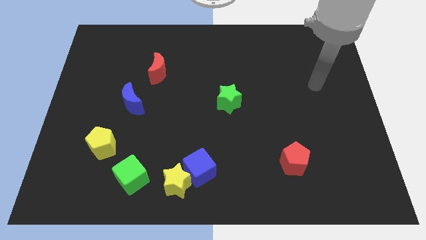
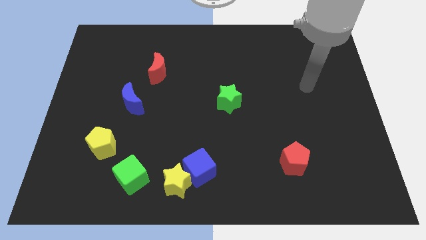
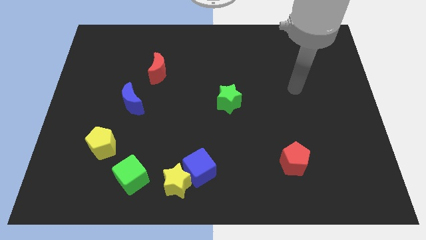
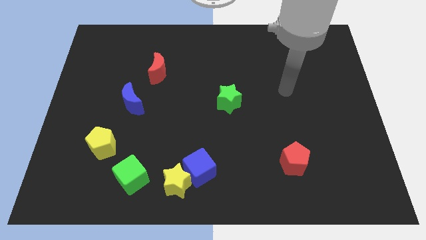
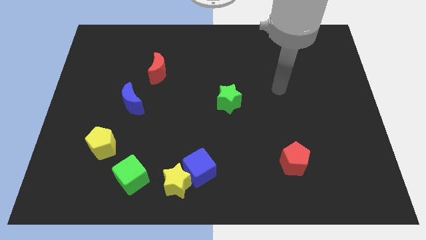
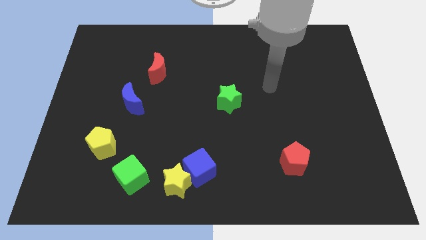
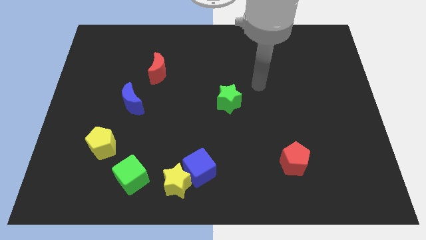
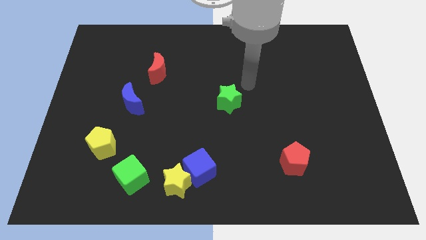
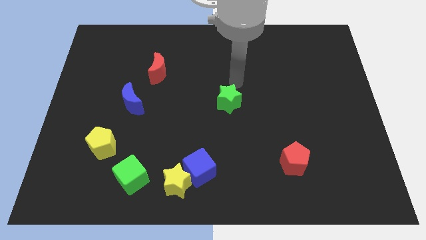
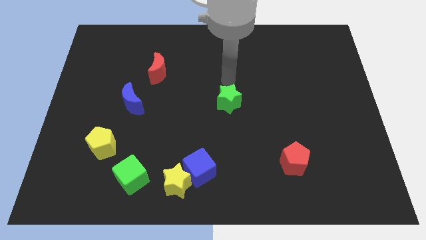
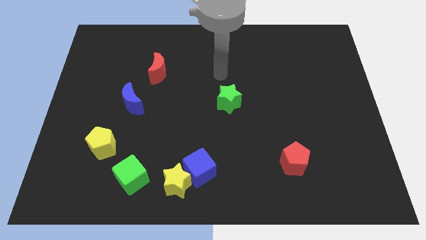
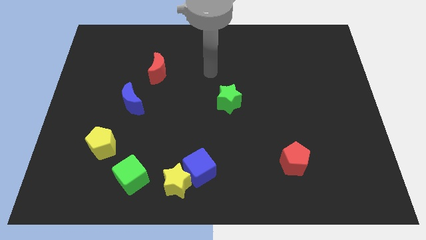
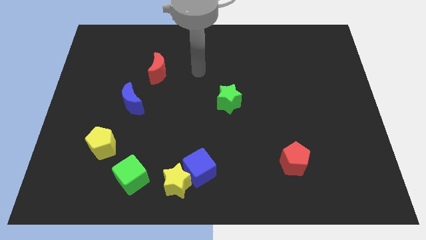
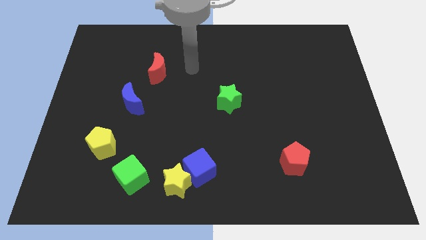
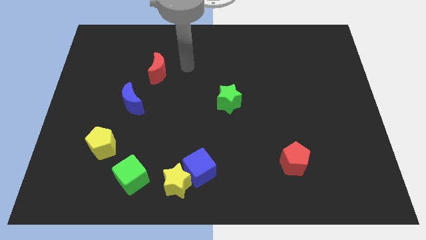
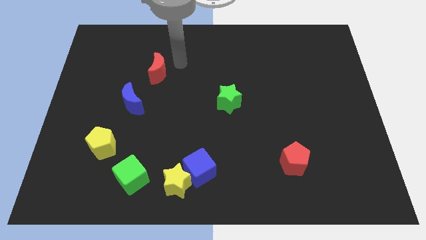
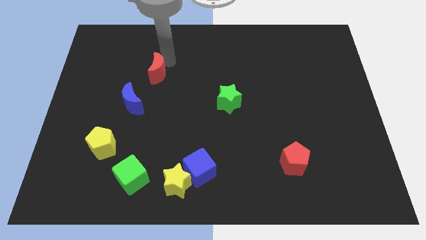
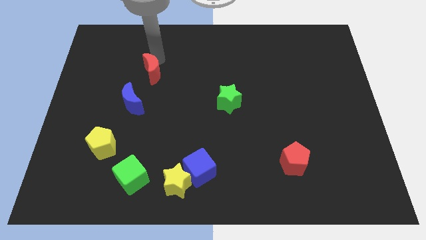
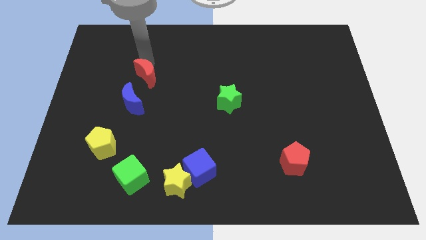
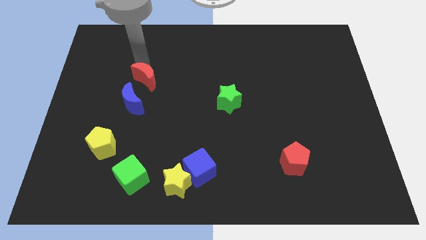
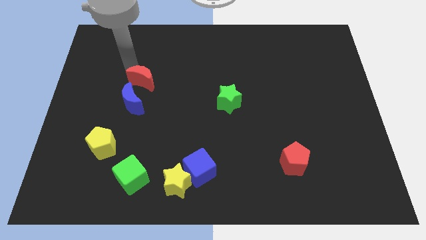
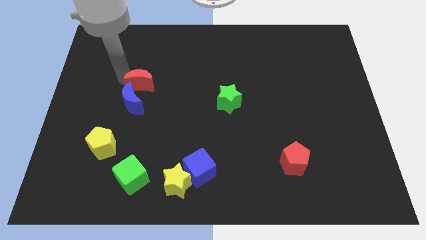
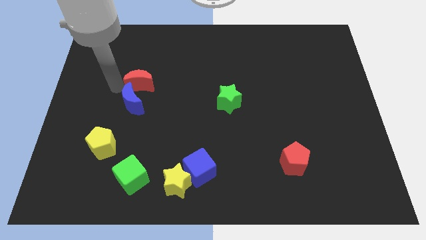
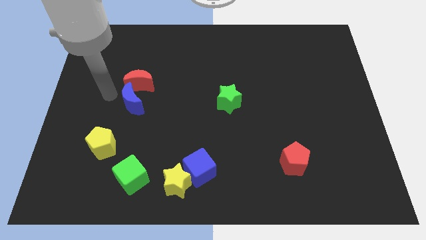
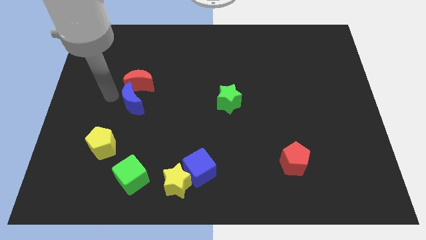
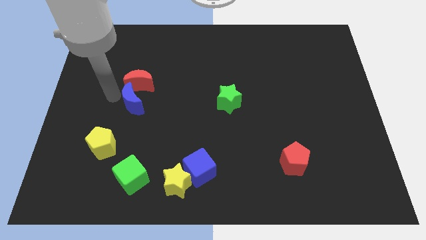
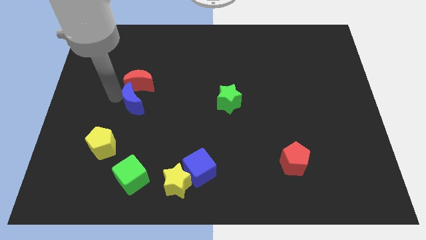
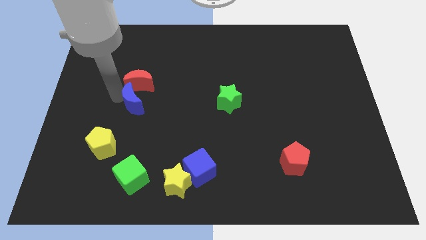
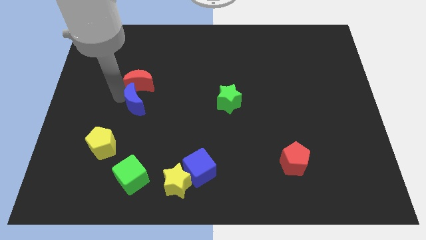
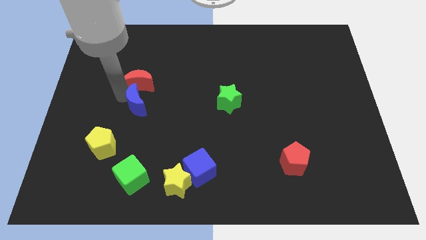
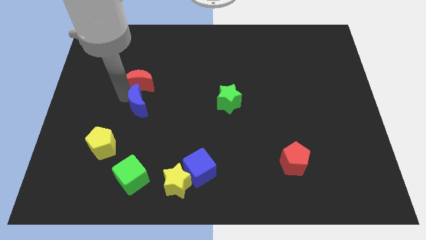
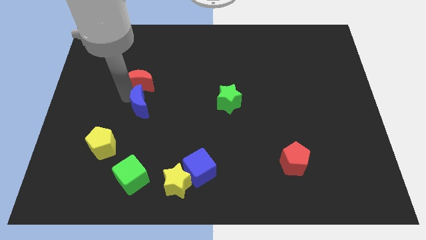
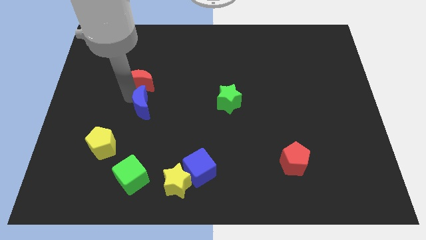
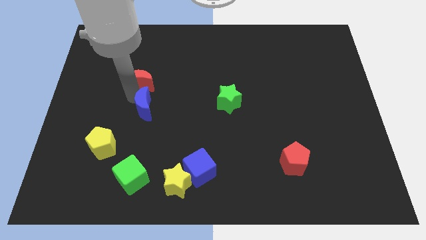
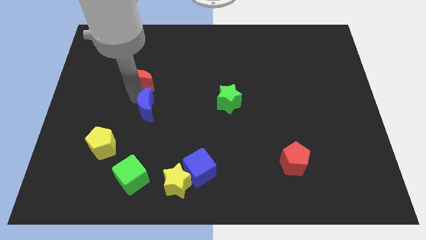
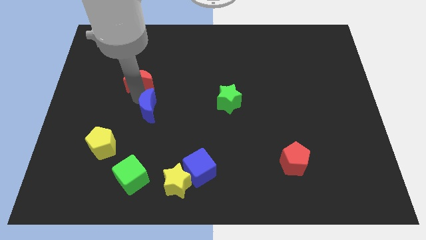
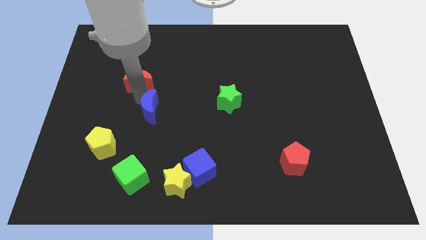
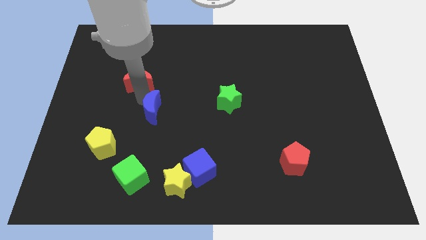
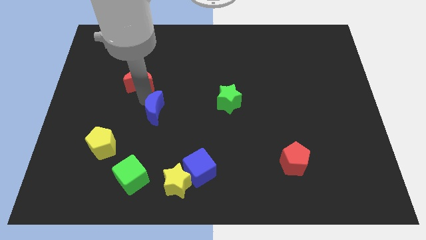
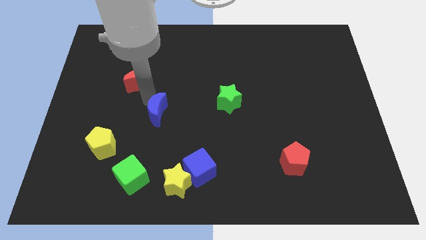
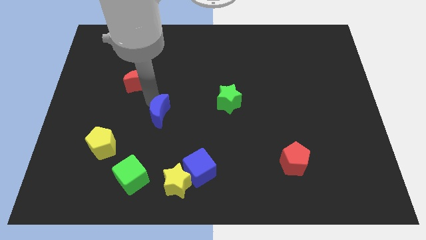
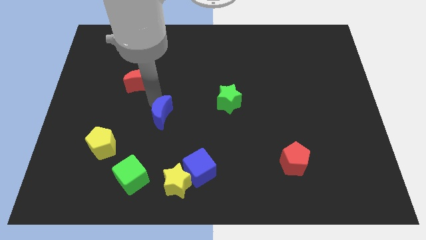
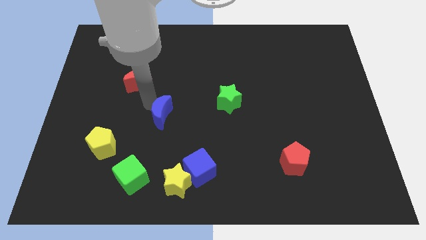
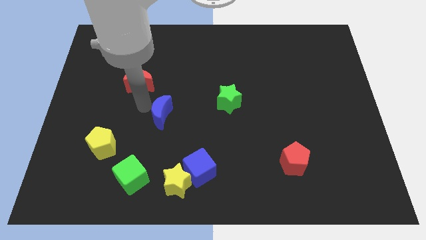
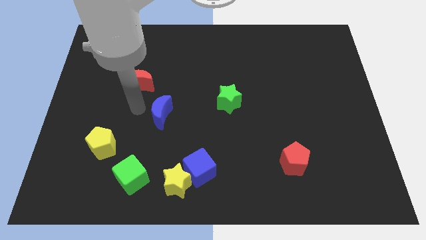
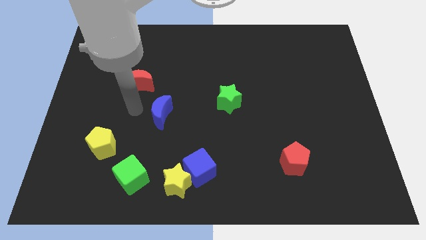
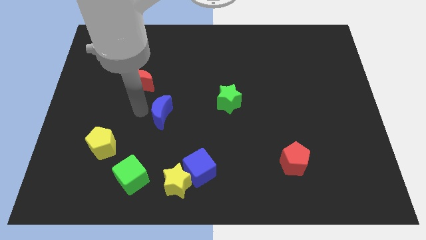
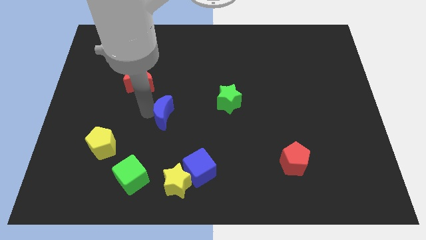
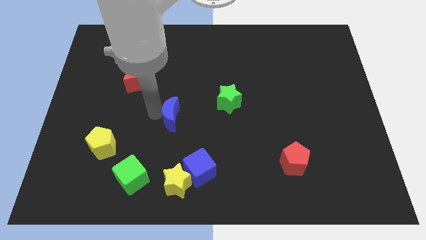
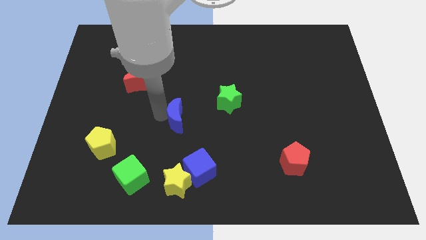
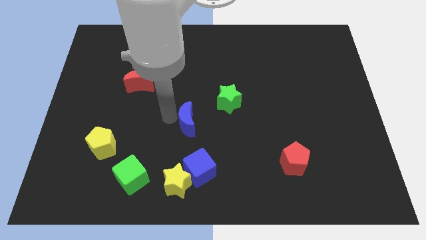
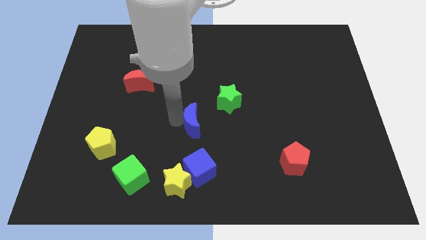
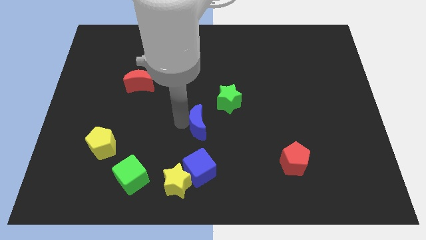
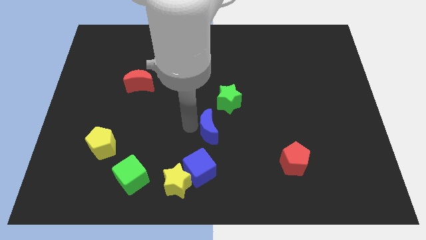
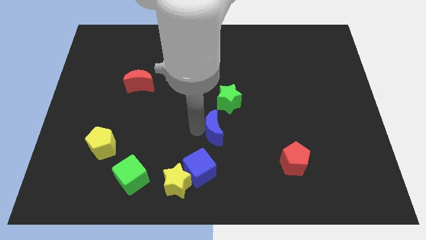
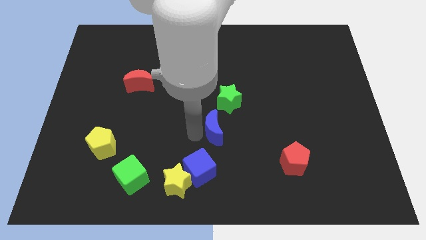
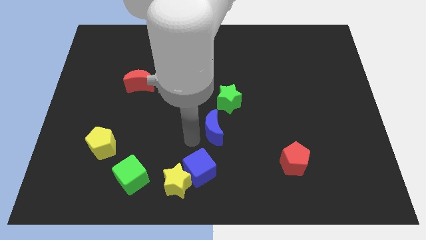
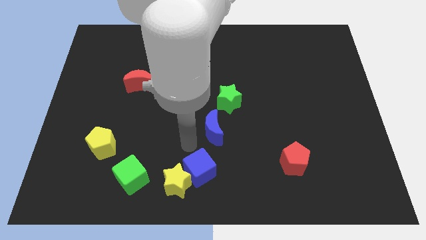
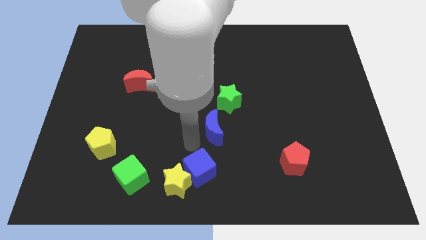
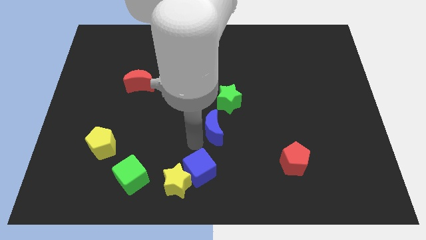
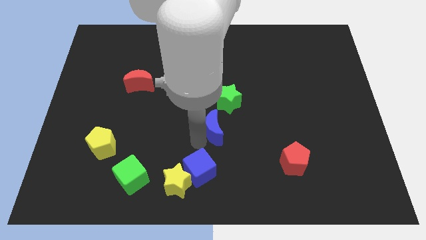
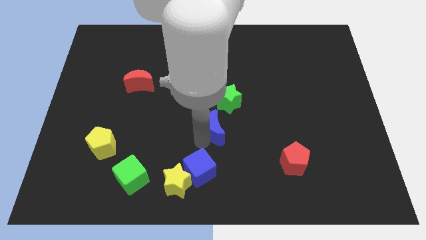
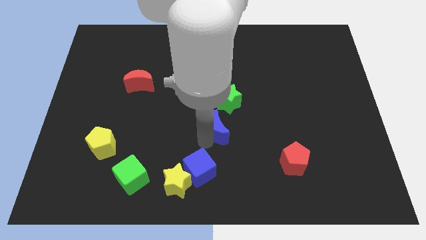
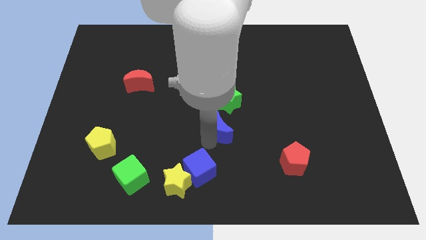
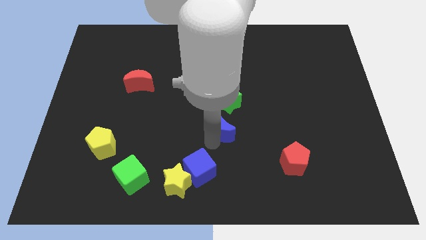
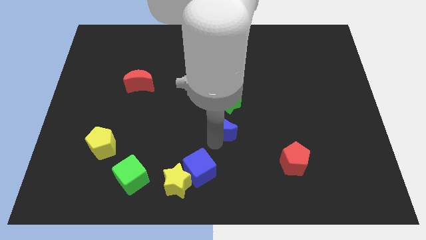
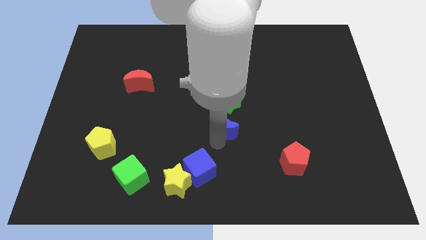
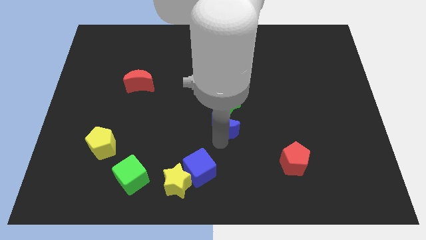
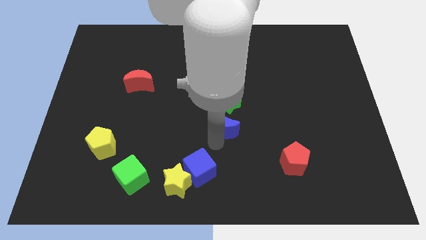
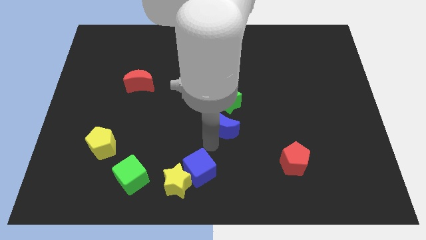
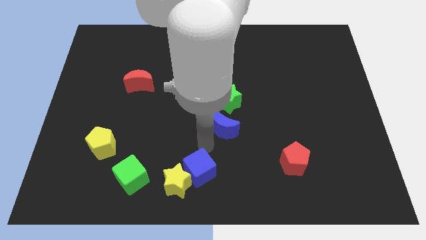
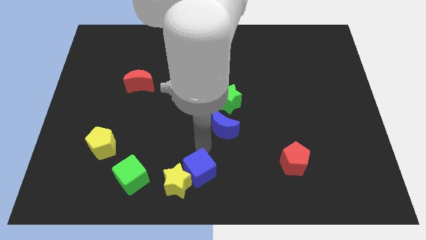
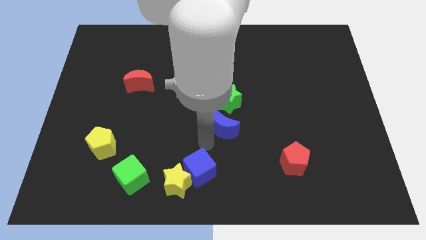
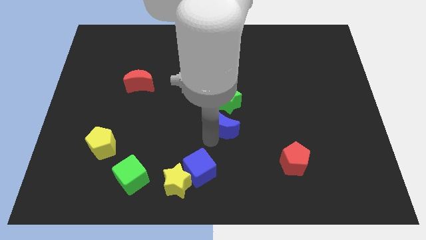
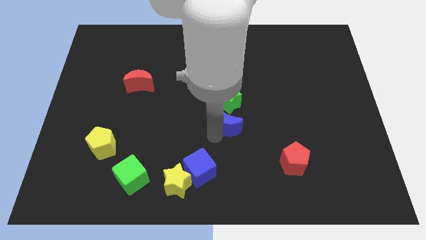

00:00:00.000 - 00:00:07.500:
move the blue moon right

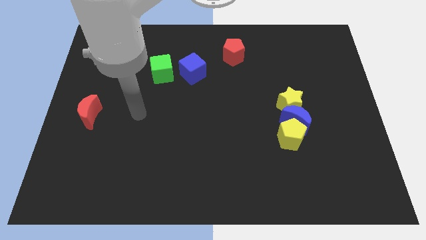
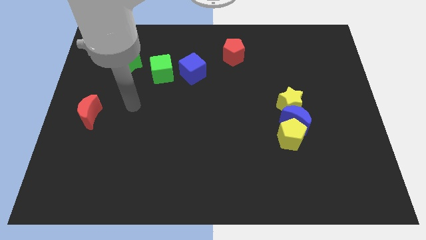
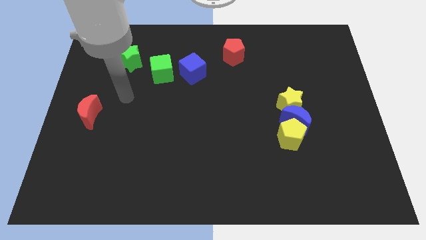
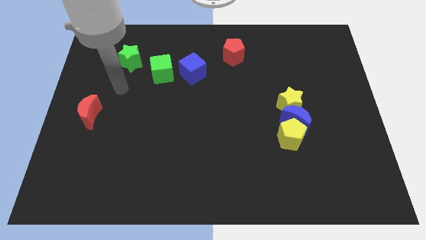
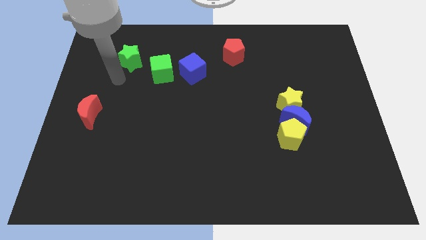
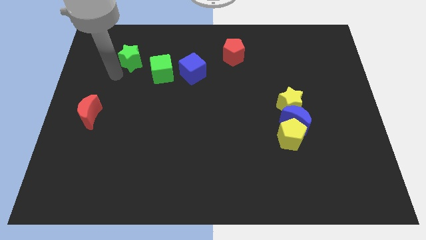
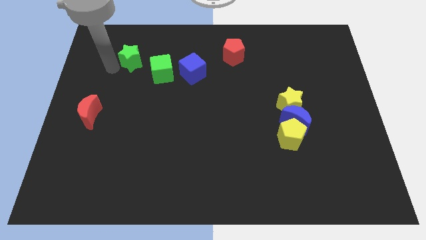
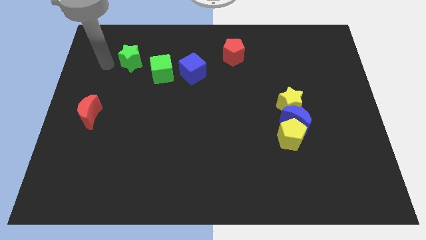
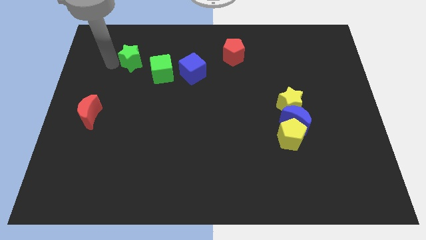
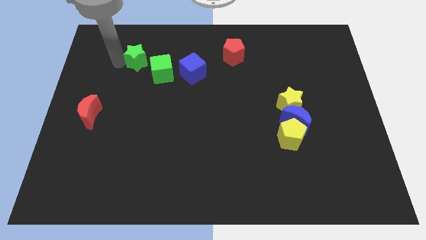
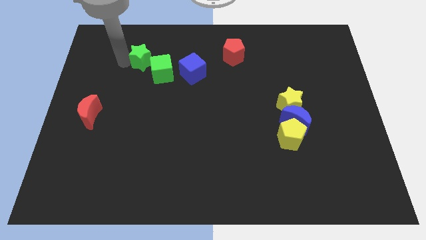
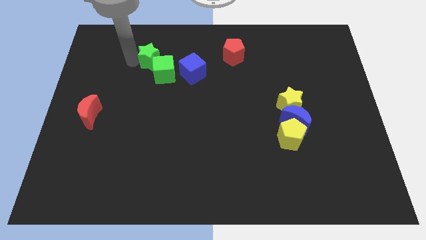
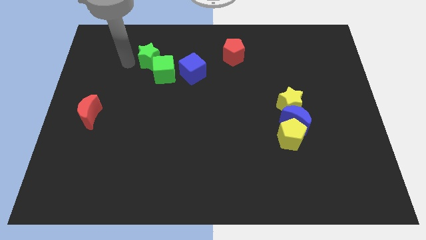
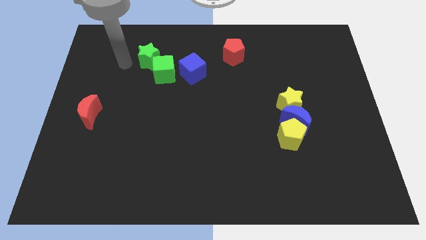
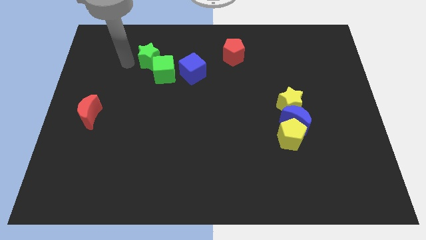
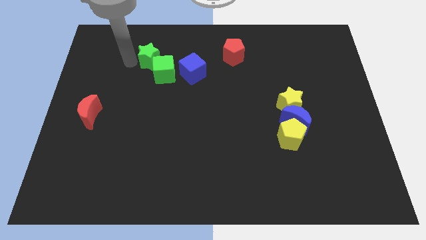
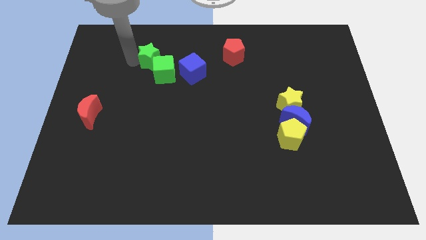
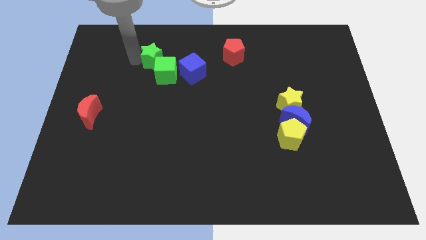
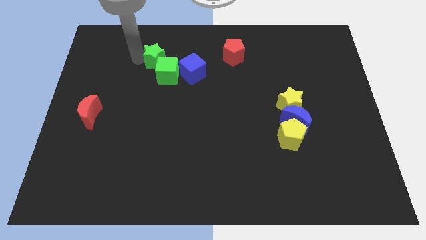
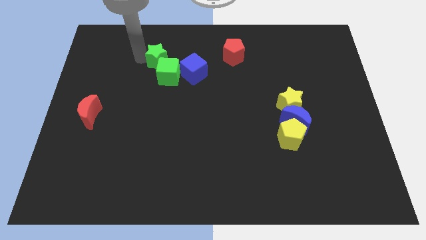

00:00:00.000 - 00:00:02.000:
move the green star a little bit to the right
